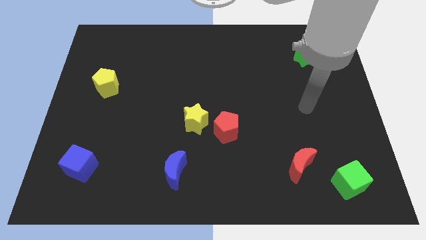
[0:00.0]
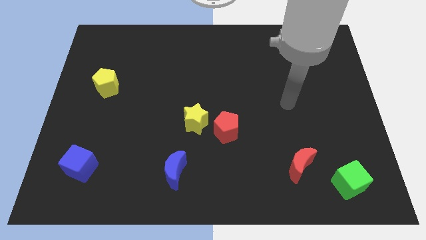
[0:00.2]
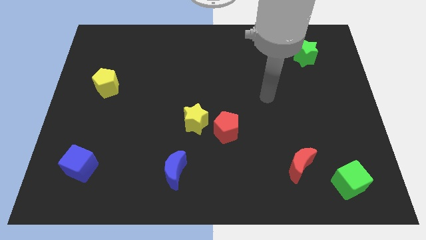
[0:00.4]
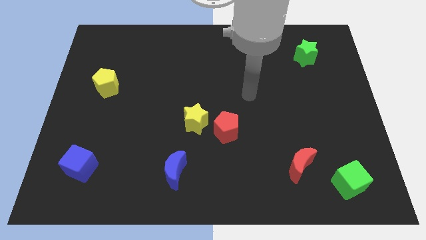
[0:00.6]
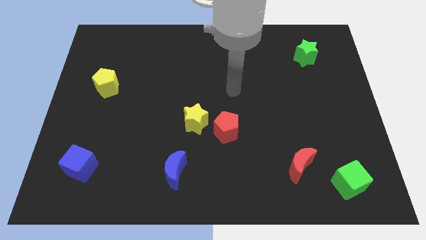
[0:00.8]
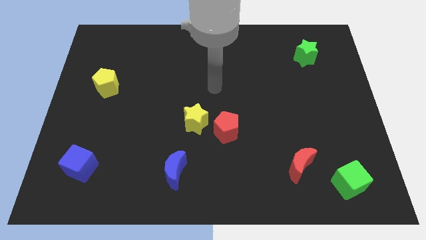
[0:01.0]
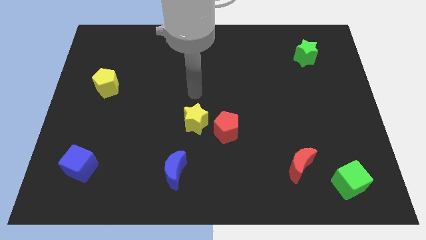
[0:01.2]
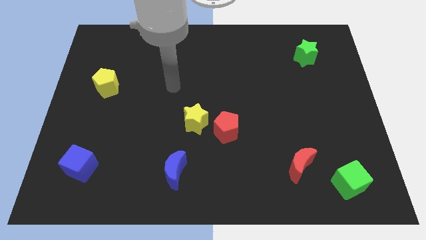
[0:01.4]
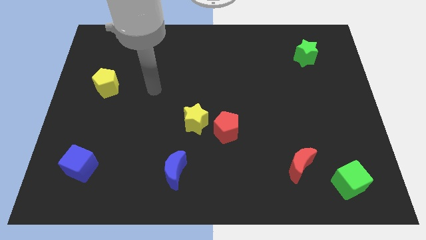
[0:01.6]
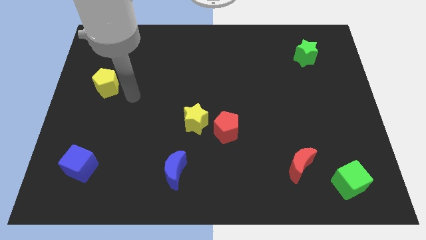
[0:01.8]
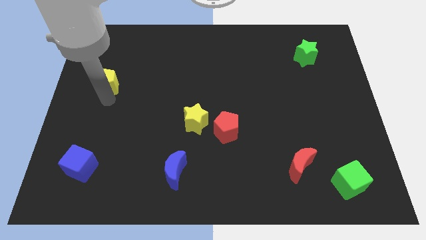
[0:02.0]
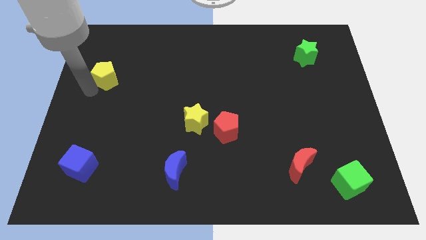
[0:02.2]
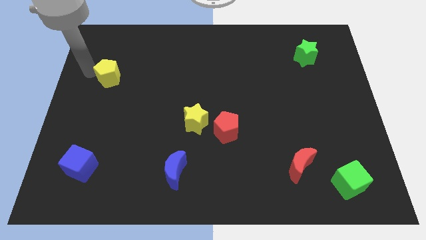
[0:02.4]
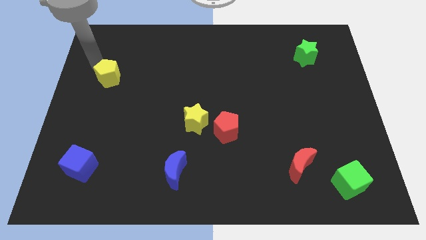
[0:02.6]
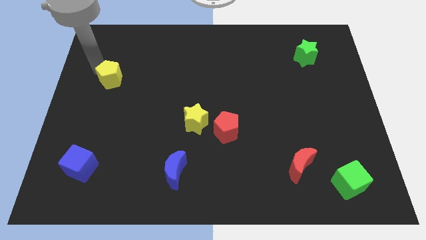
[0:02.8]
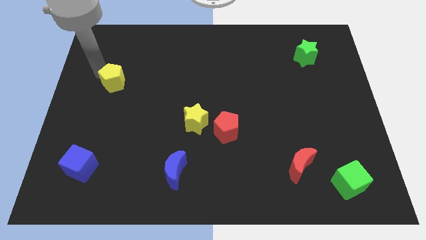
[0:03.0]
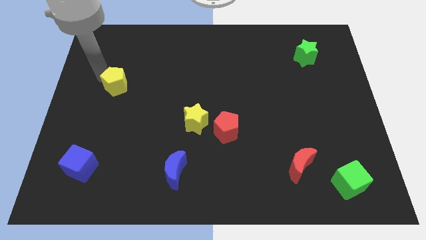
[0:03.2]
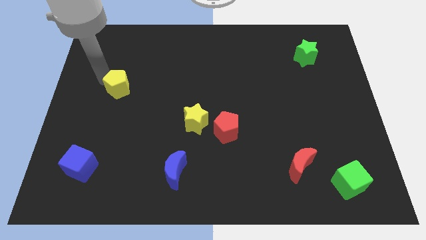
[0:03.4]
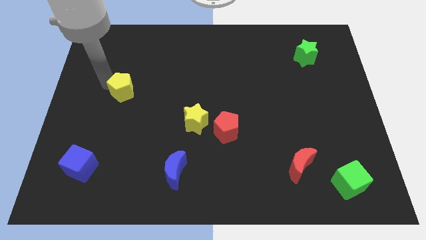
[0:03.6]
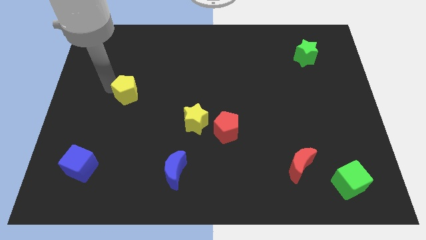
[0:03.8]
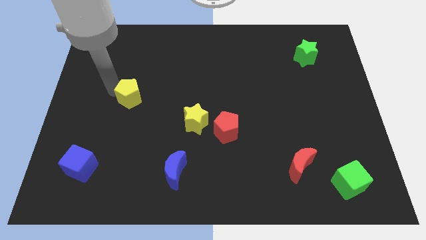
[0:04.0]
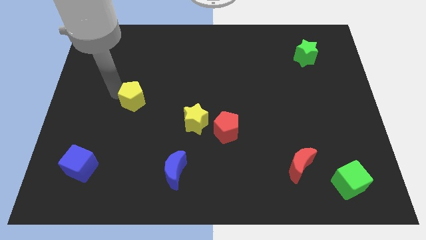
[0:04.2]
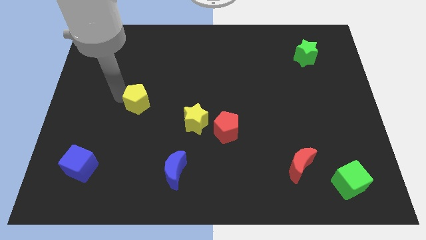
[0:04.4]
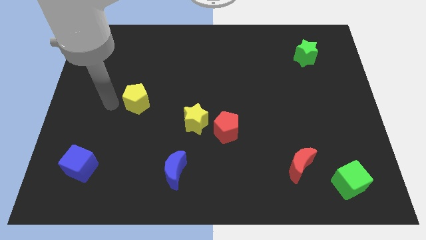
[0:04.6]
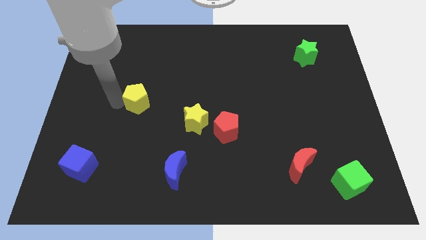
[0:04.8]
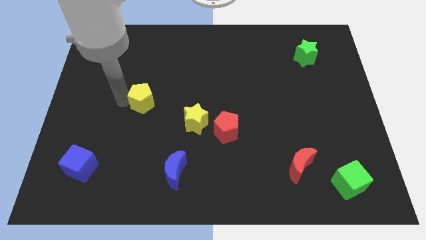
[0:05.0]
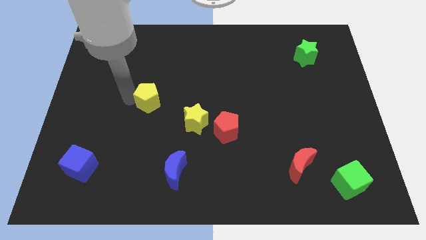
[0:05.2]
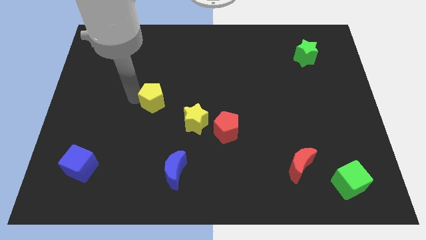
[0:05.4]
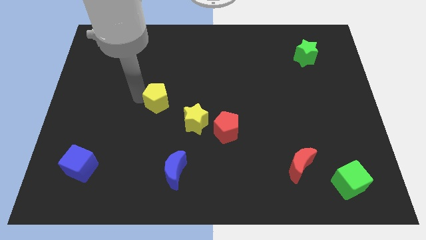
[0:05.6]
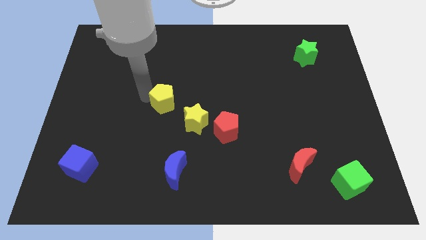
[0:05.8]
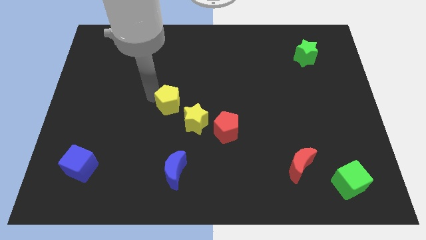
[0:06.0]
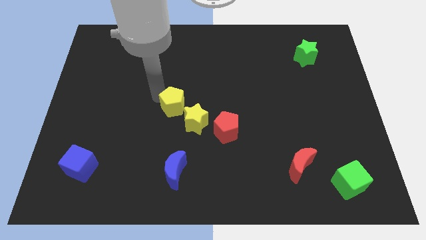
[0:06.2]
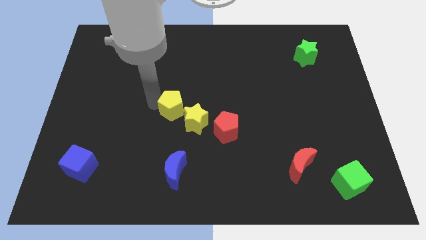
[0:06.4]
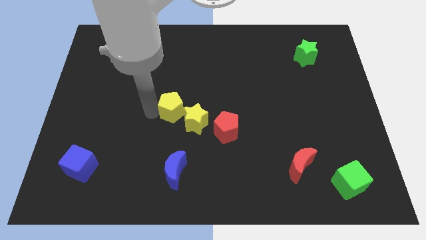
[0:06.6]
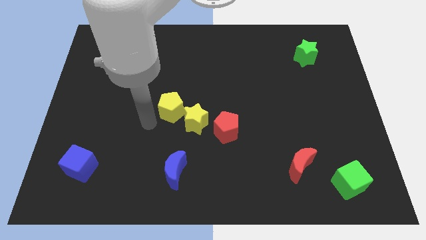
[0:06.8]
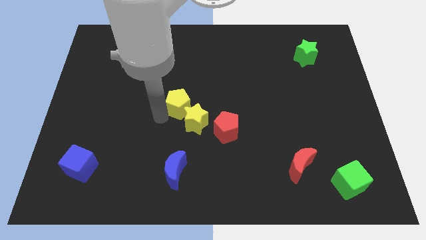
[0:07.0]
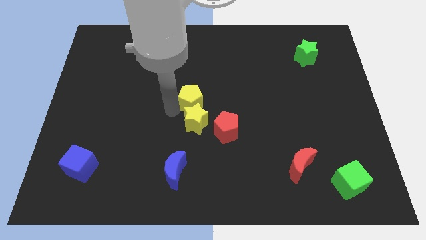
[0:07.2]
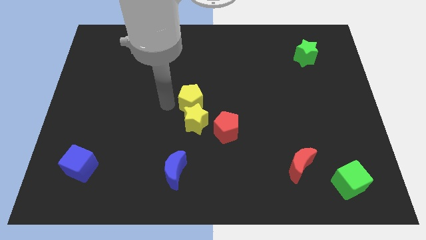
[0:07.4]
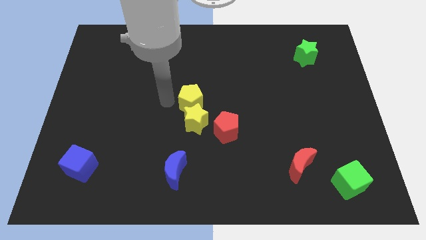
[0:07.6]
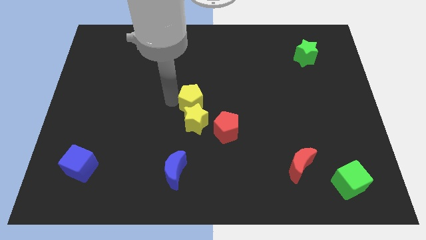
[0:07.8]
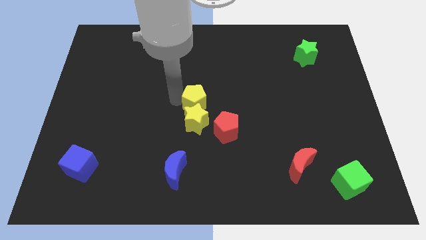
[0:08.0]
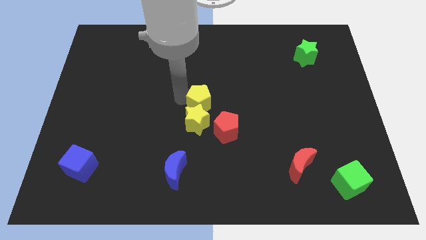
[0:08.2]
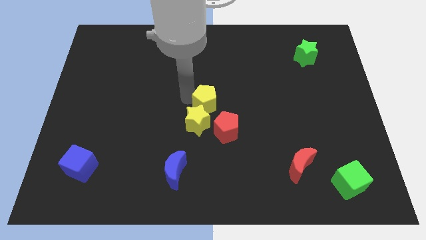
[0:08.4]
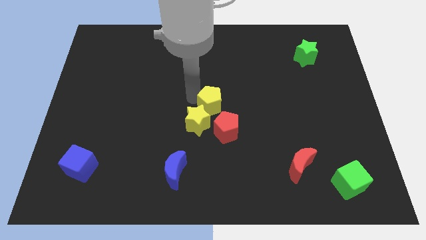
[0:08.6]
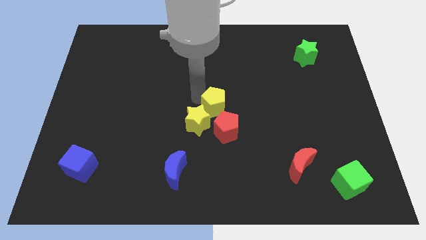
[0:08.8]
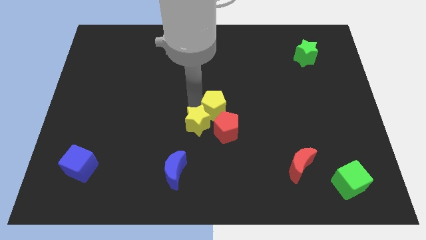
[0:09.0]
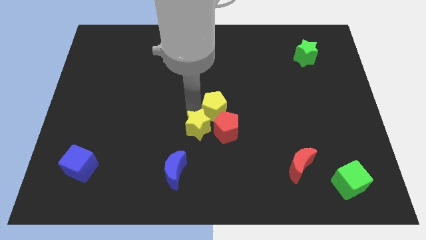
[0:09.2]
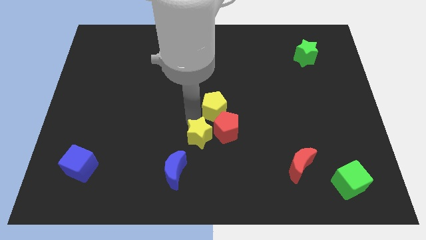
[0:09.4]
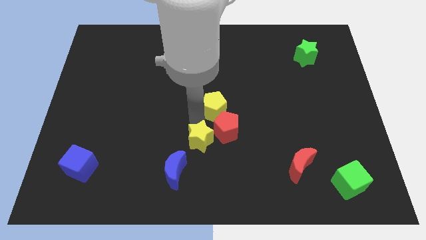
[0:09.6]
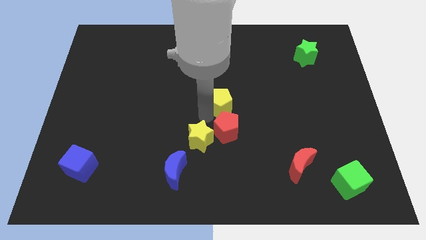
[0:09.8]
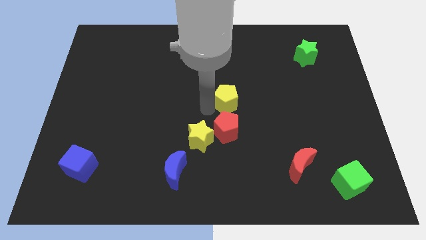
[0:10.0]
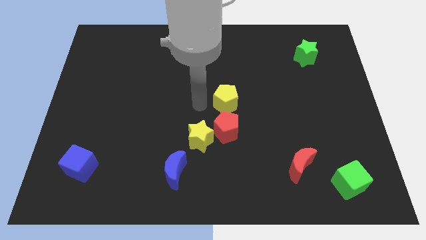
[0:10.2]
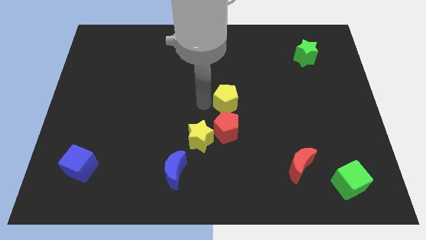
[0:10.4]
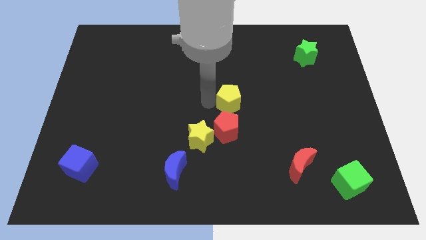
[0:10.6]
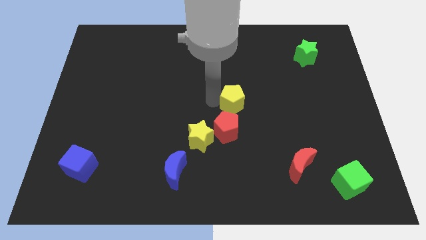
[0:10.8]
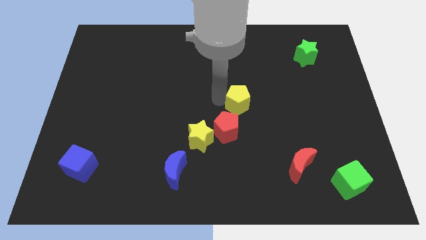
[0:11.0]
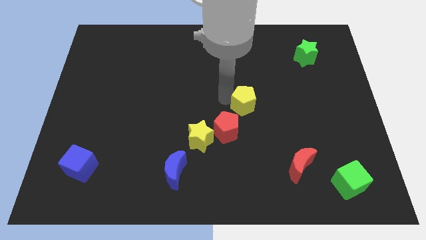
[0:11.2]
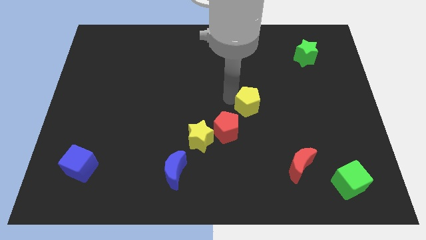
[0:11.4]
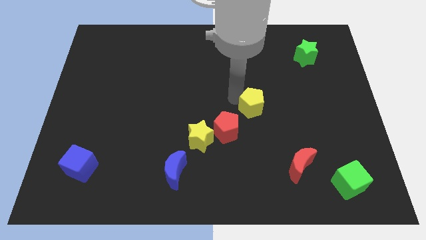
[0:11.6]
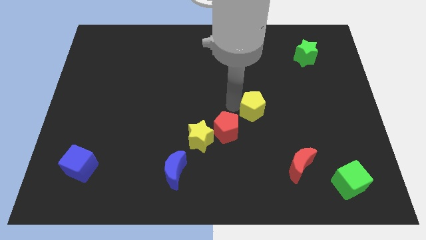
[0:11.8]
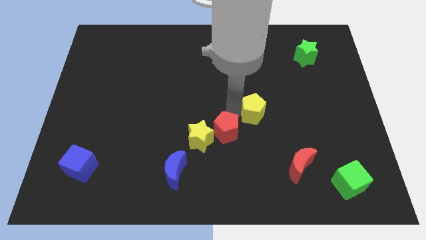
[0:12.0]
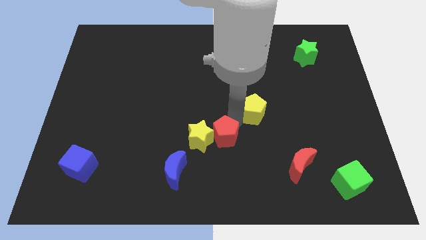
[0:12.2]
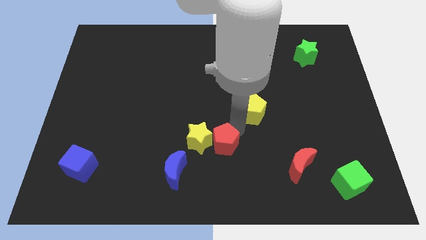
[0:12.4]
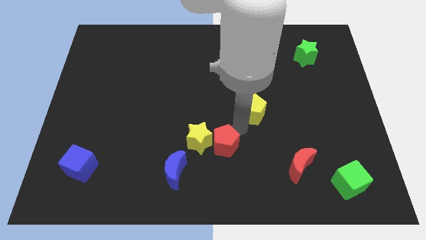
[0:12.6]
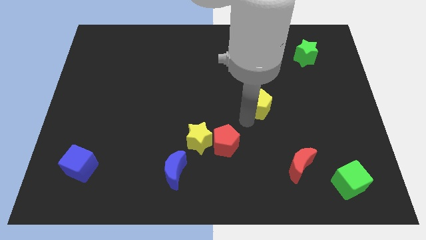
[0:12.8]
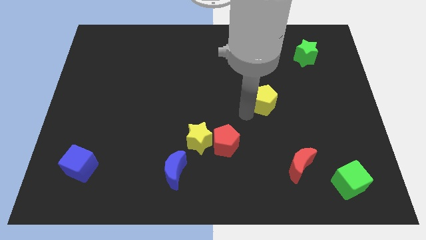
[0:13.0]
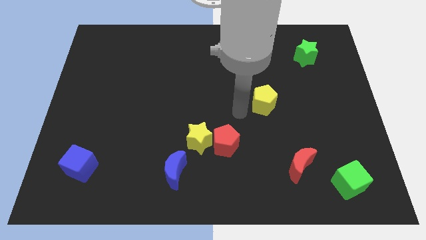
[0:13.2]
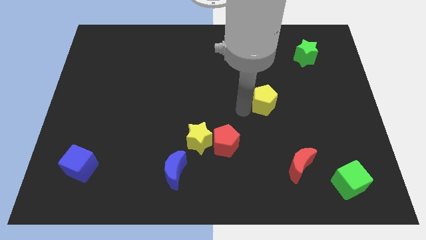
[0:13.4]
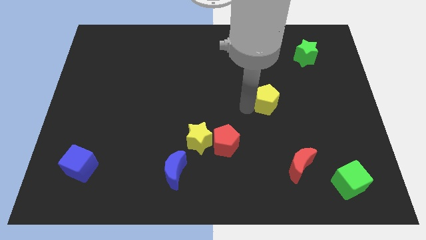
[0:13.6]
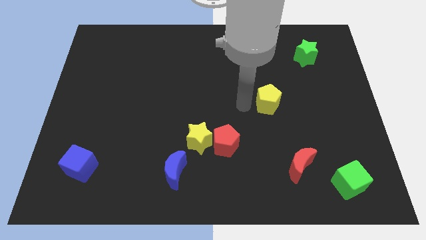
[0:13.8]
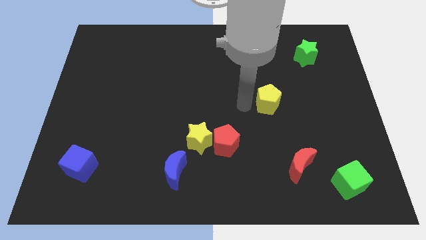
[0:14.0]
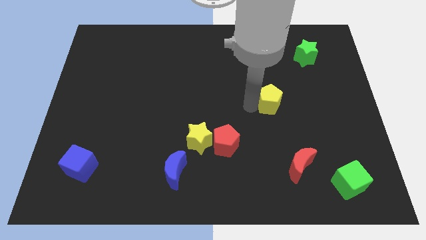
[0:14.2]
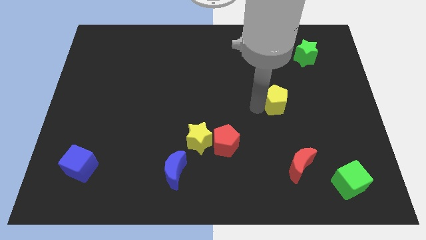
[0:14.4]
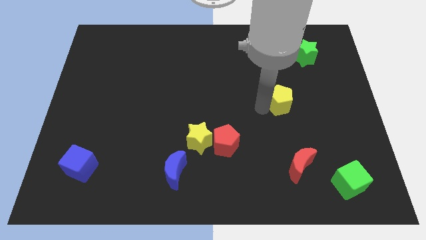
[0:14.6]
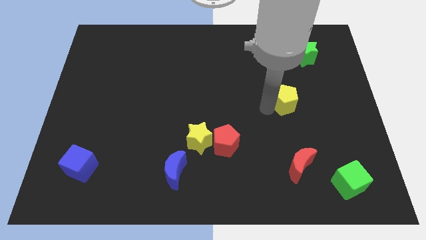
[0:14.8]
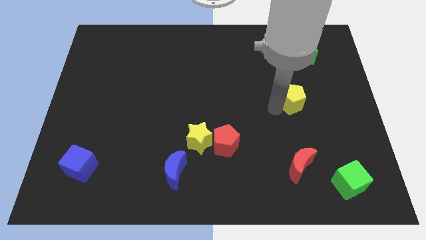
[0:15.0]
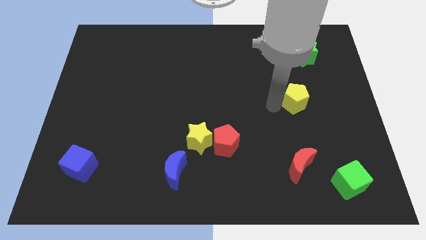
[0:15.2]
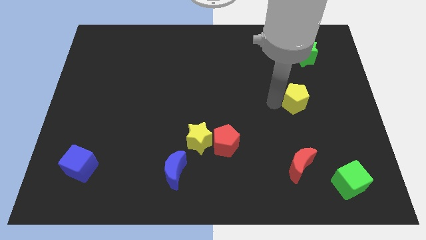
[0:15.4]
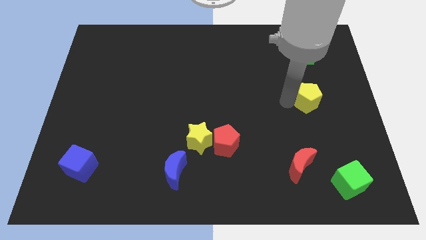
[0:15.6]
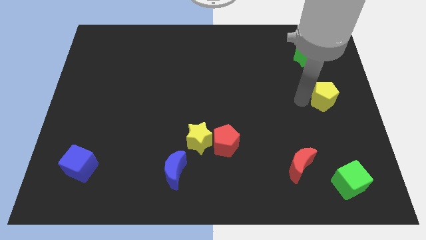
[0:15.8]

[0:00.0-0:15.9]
slide the yellow pentagon to the right side of the board
